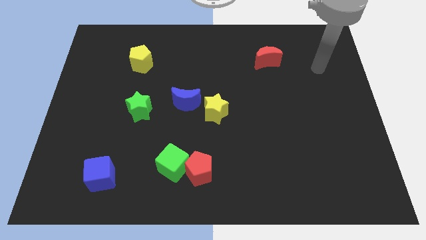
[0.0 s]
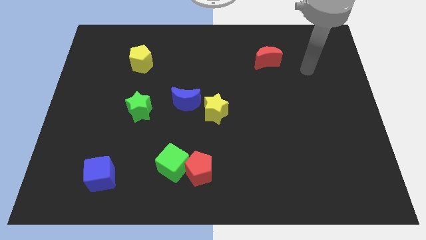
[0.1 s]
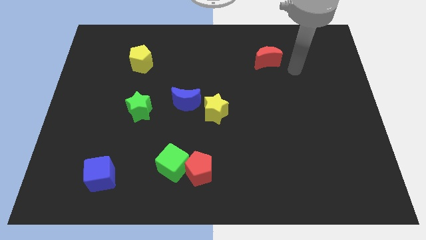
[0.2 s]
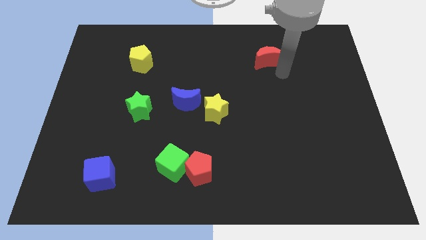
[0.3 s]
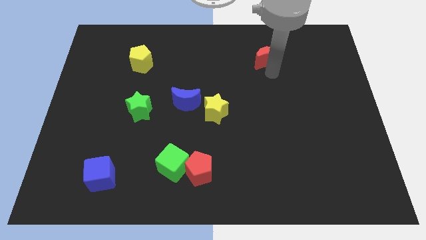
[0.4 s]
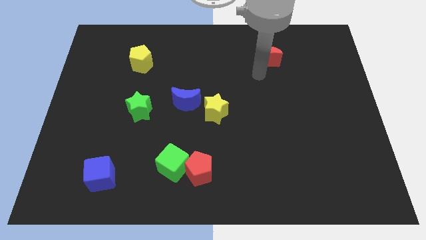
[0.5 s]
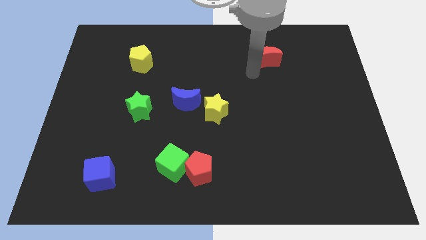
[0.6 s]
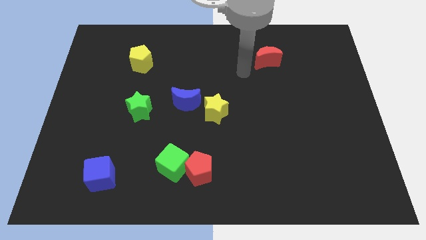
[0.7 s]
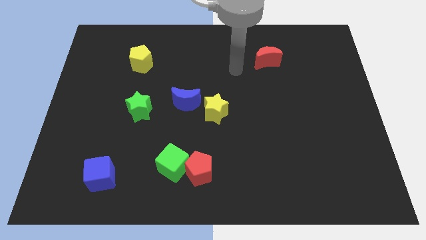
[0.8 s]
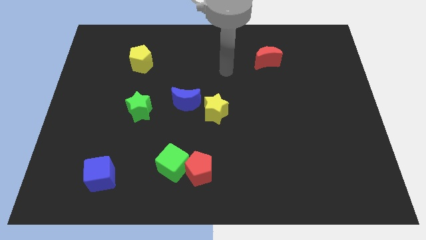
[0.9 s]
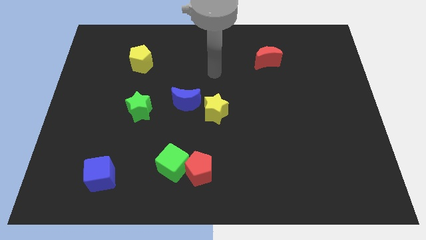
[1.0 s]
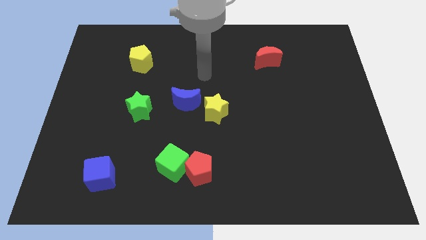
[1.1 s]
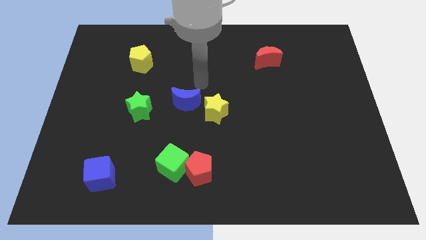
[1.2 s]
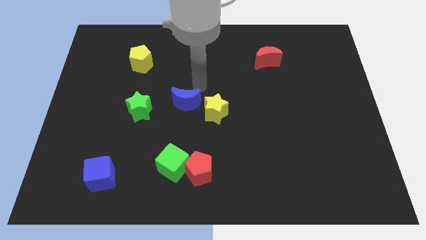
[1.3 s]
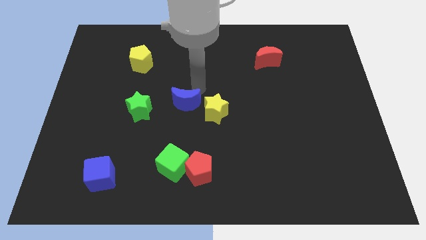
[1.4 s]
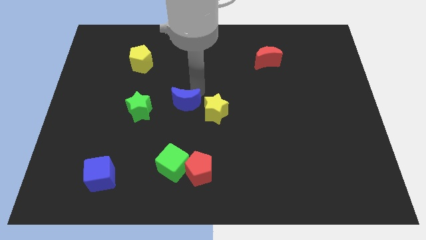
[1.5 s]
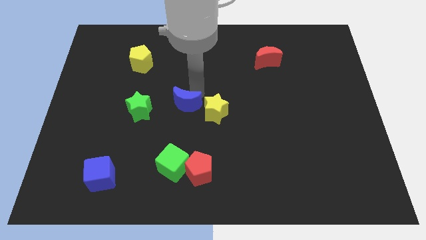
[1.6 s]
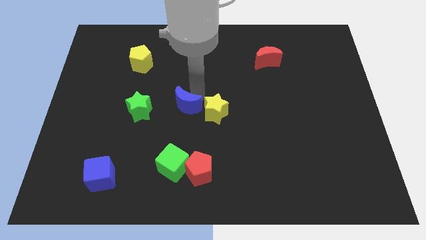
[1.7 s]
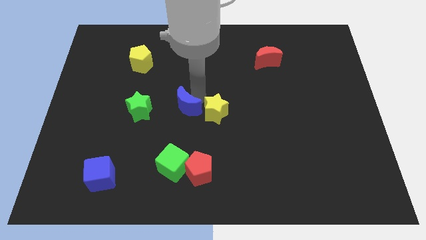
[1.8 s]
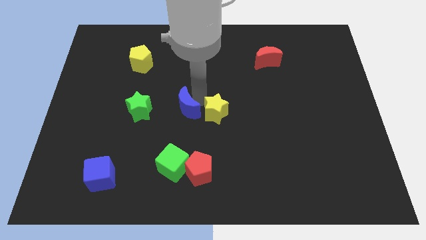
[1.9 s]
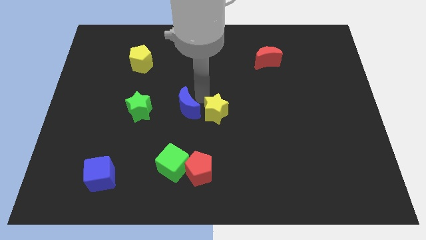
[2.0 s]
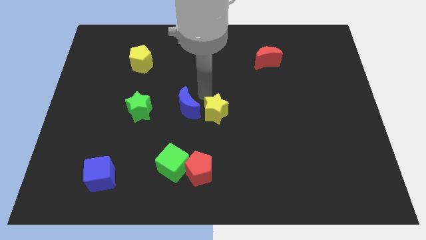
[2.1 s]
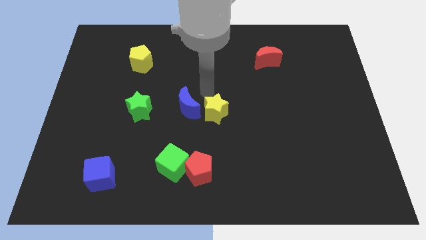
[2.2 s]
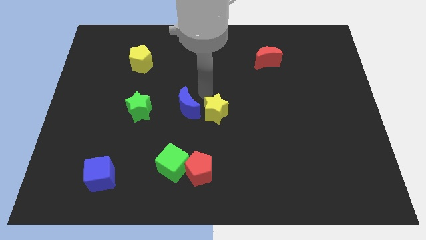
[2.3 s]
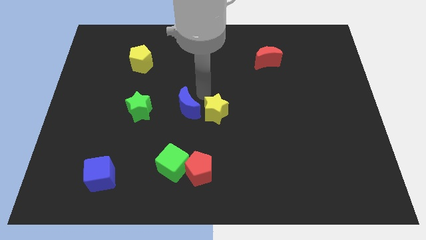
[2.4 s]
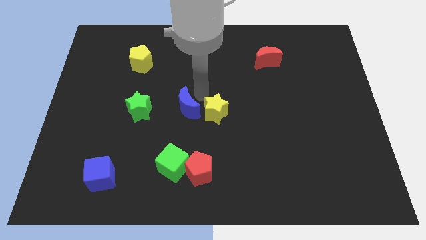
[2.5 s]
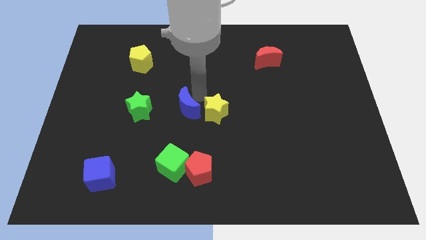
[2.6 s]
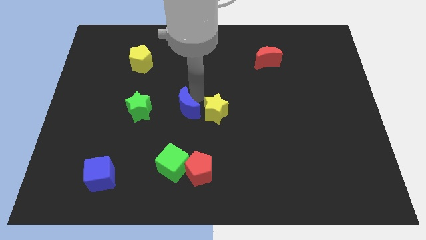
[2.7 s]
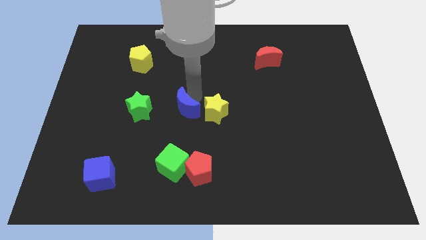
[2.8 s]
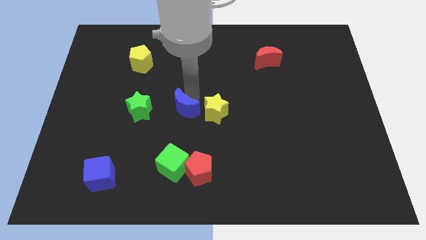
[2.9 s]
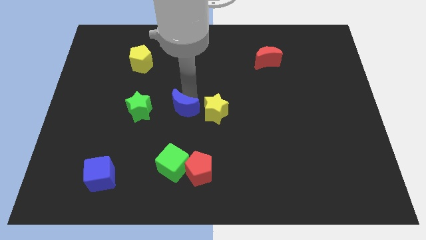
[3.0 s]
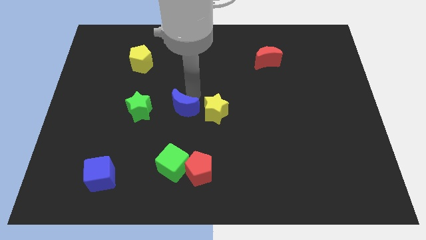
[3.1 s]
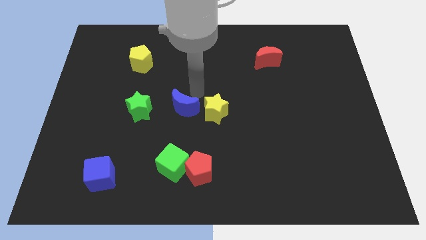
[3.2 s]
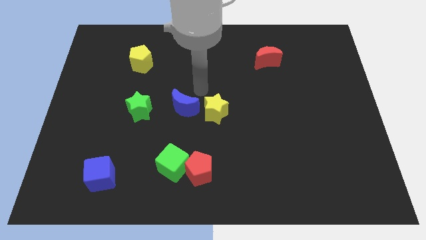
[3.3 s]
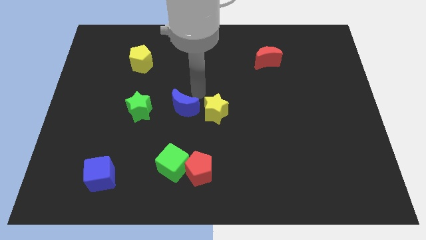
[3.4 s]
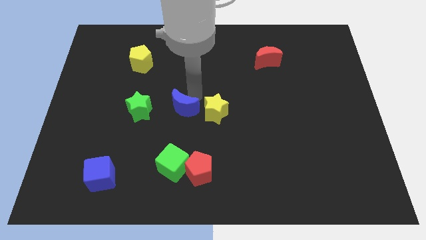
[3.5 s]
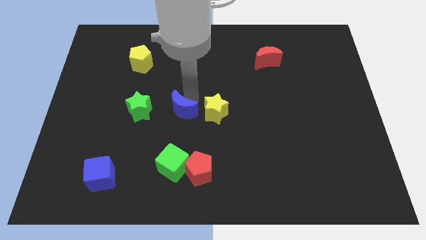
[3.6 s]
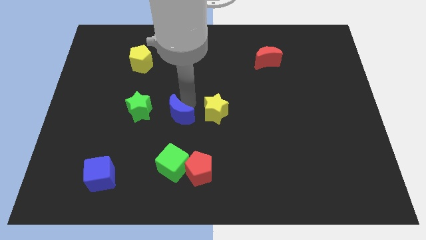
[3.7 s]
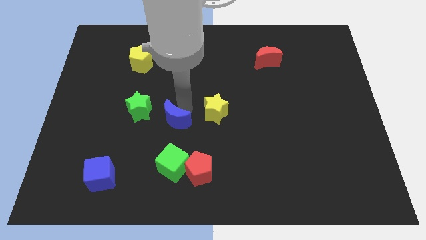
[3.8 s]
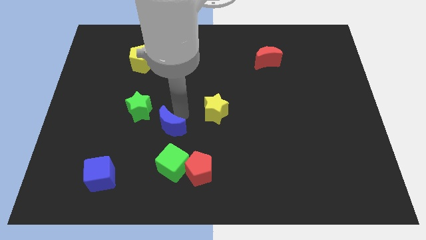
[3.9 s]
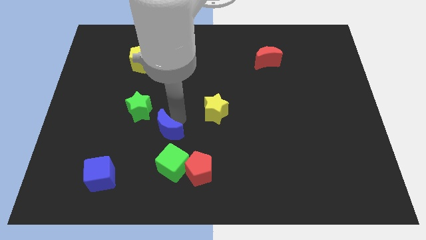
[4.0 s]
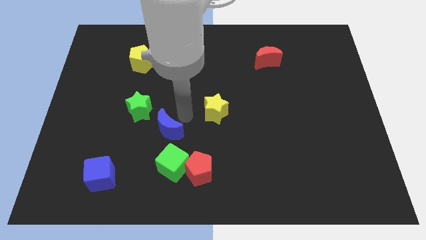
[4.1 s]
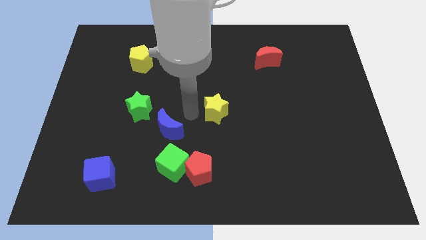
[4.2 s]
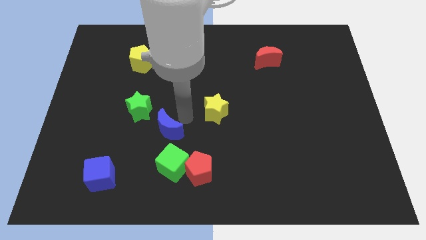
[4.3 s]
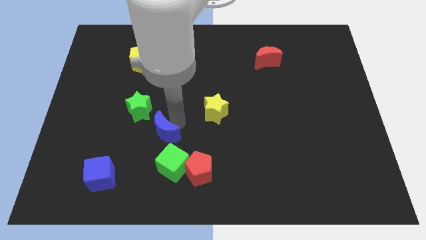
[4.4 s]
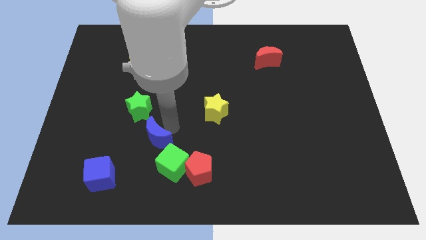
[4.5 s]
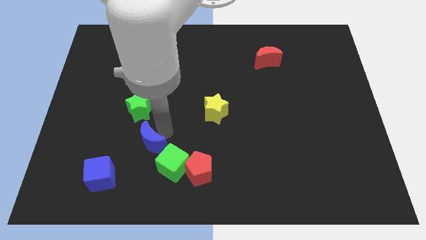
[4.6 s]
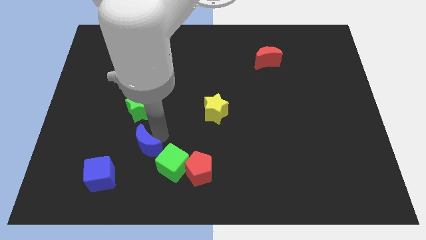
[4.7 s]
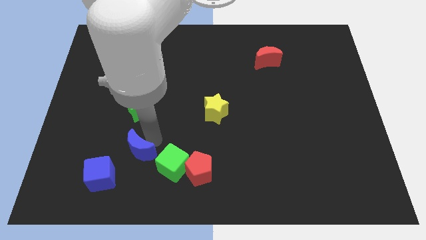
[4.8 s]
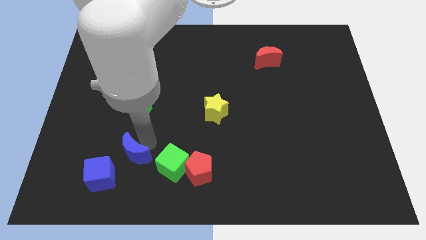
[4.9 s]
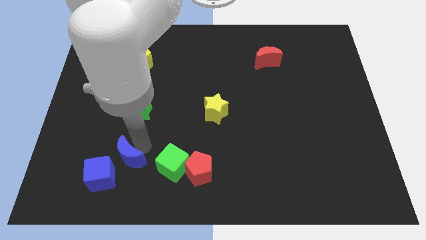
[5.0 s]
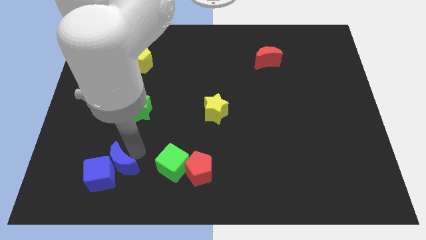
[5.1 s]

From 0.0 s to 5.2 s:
move the blue moon next to the blue cube

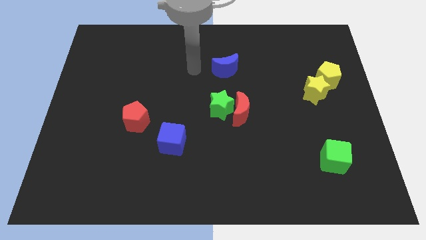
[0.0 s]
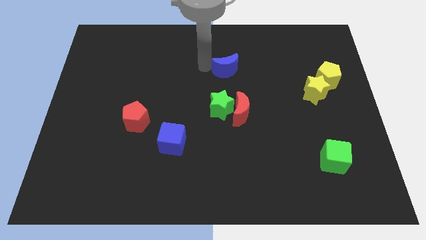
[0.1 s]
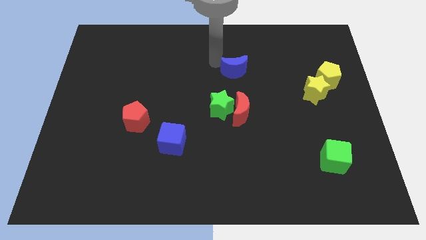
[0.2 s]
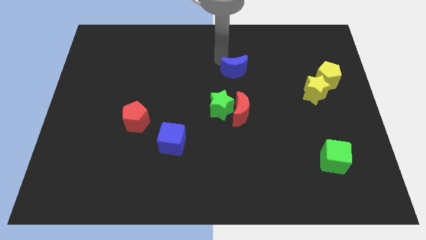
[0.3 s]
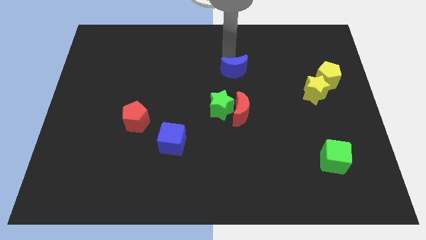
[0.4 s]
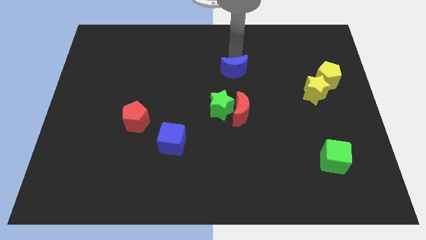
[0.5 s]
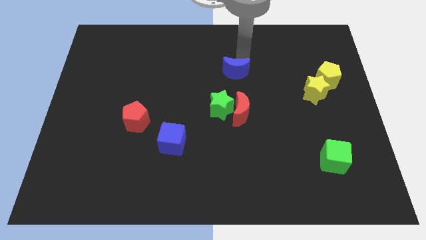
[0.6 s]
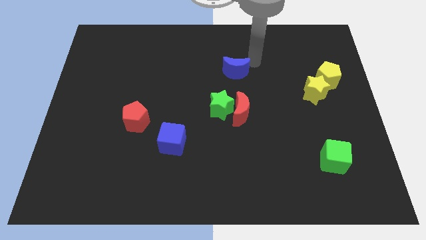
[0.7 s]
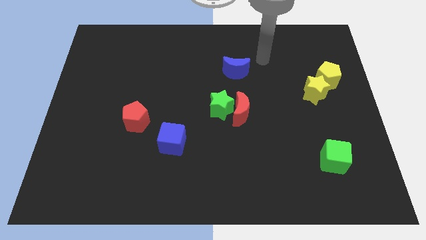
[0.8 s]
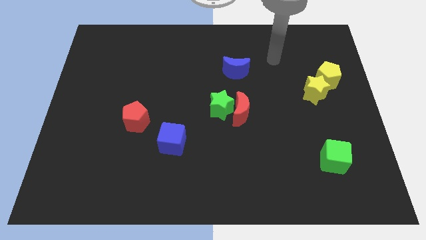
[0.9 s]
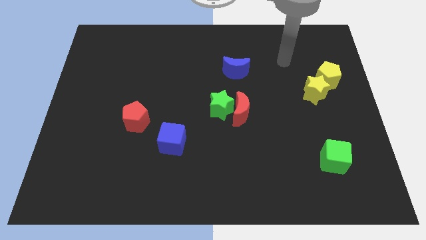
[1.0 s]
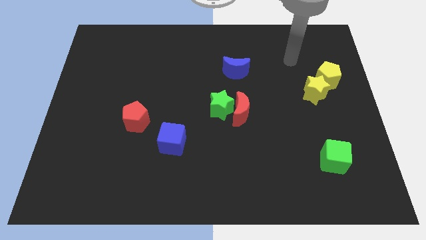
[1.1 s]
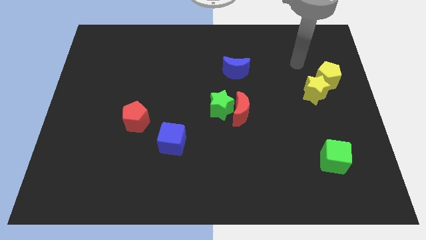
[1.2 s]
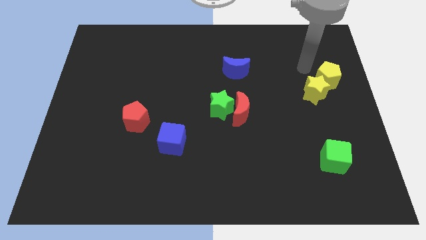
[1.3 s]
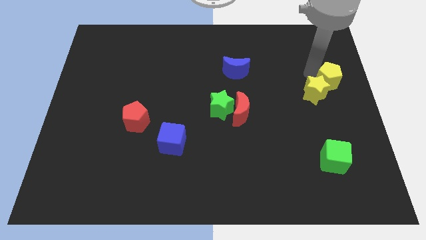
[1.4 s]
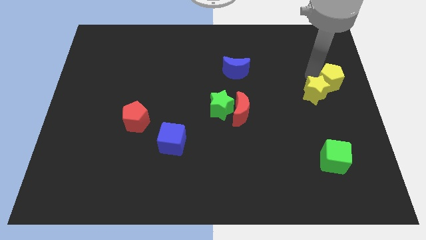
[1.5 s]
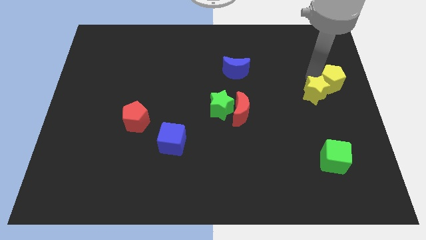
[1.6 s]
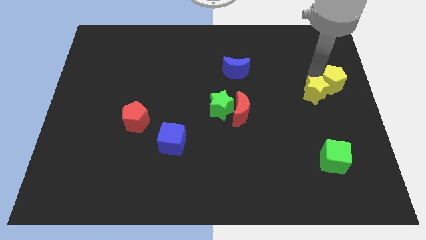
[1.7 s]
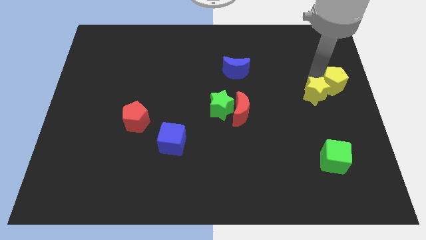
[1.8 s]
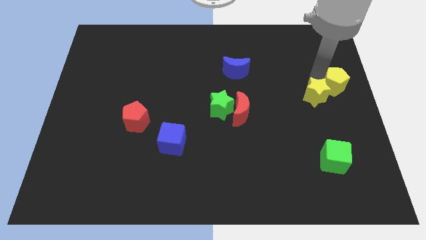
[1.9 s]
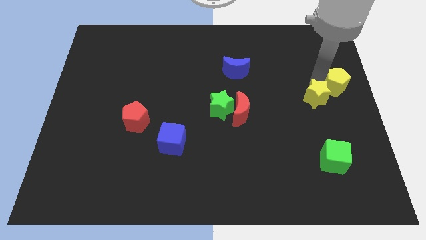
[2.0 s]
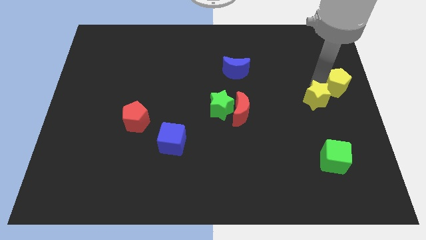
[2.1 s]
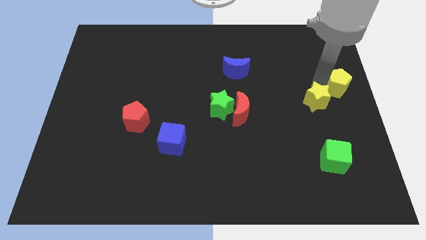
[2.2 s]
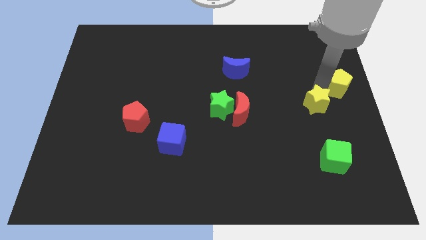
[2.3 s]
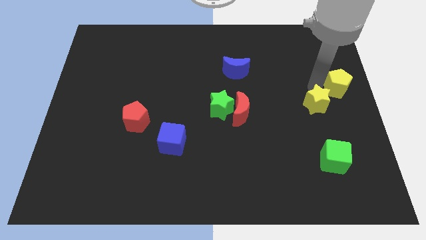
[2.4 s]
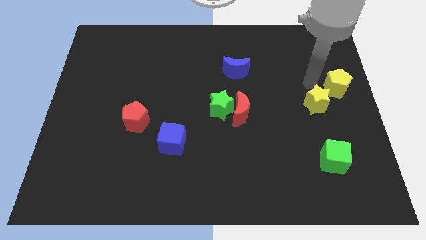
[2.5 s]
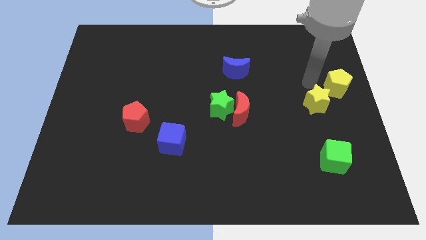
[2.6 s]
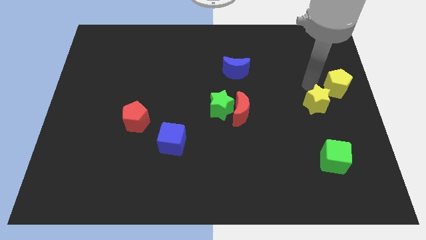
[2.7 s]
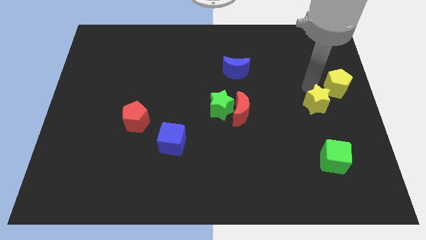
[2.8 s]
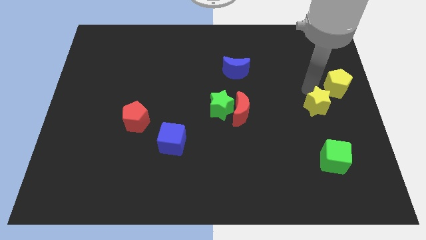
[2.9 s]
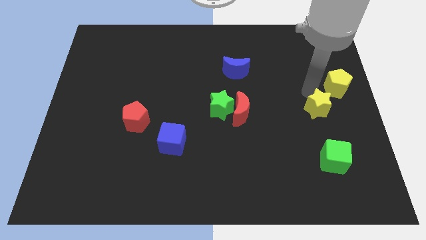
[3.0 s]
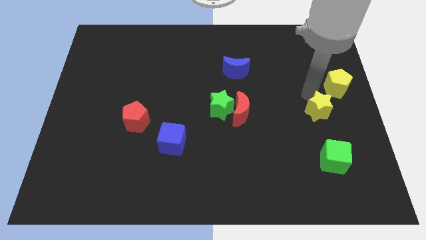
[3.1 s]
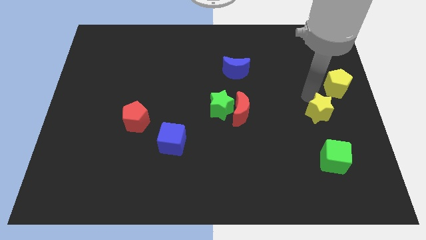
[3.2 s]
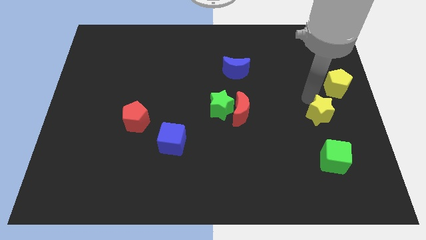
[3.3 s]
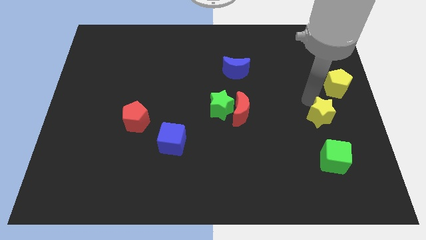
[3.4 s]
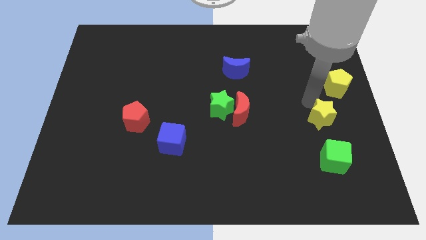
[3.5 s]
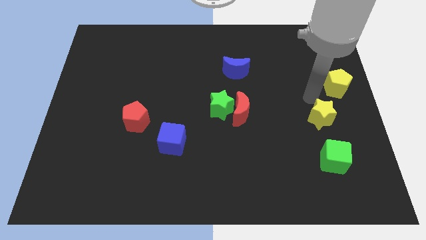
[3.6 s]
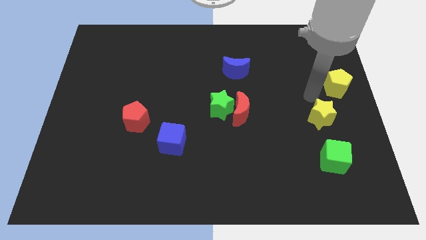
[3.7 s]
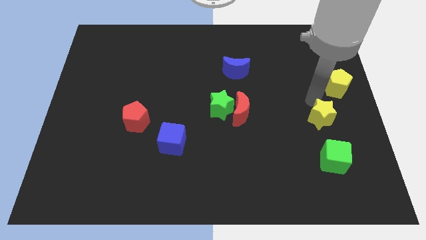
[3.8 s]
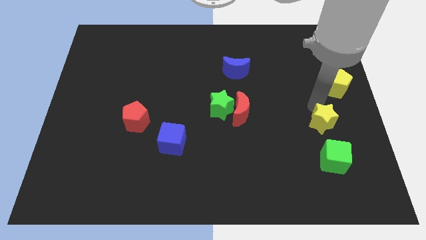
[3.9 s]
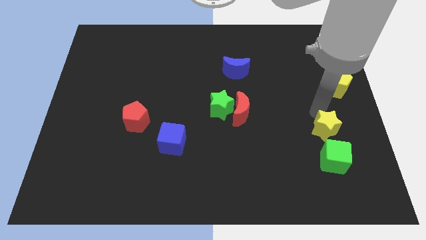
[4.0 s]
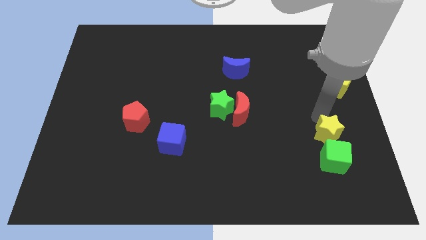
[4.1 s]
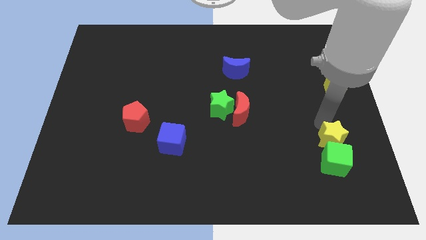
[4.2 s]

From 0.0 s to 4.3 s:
slide the yellow star to the green cube
